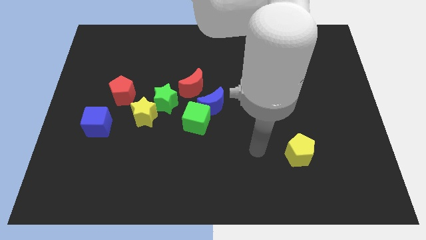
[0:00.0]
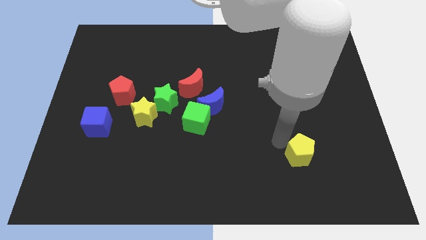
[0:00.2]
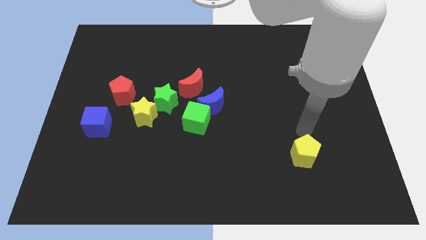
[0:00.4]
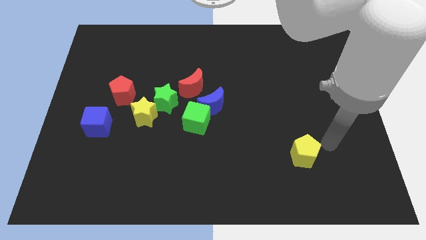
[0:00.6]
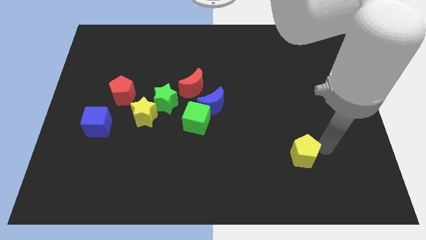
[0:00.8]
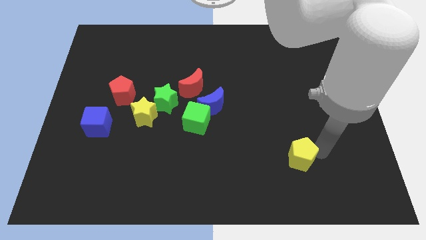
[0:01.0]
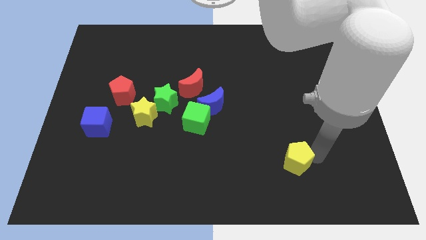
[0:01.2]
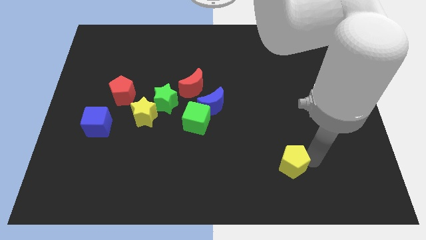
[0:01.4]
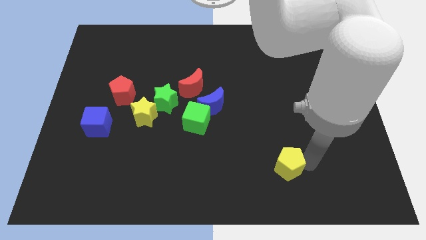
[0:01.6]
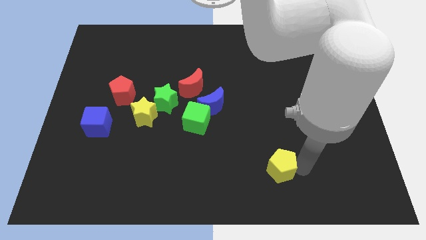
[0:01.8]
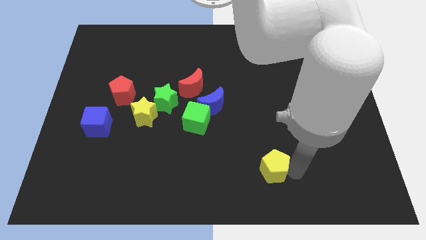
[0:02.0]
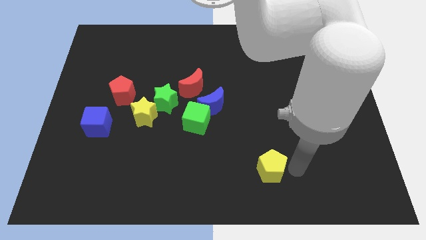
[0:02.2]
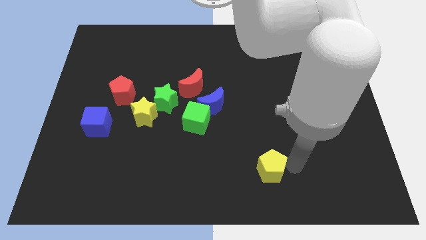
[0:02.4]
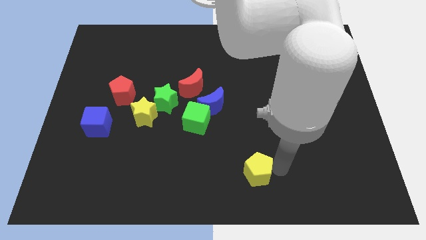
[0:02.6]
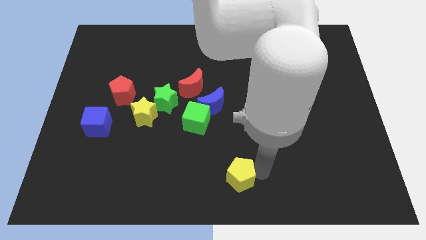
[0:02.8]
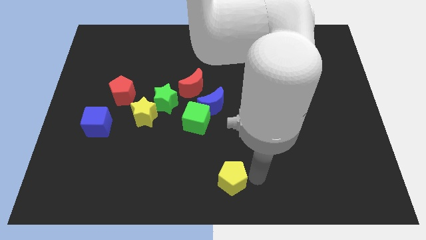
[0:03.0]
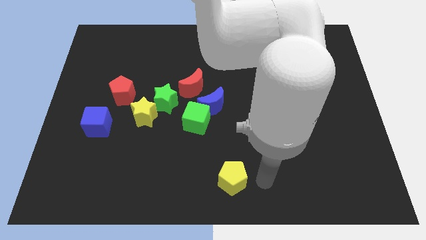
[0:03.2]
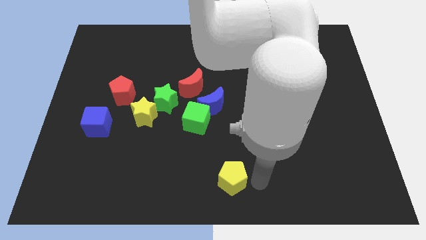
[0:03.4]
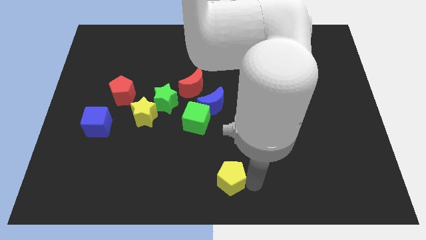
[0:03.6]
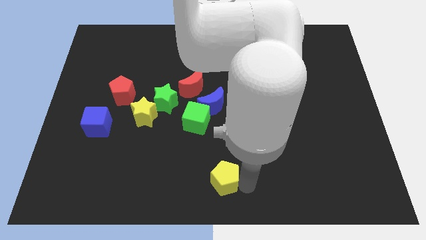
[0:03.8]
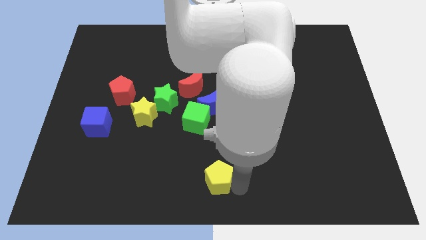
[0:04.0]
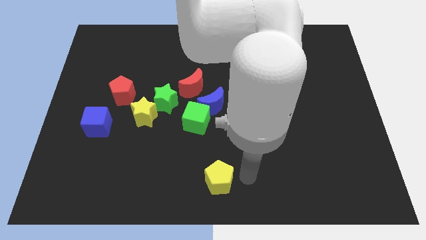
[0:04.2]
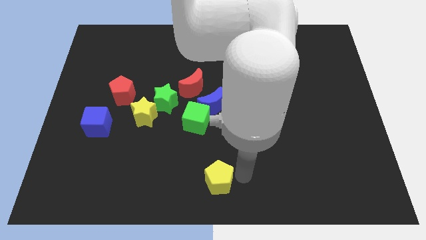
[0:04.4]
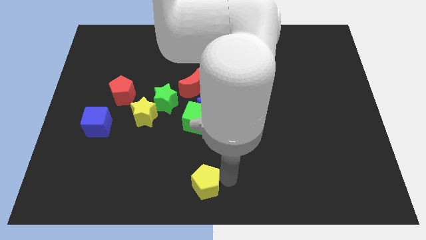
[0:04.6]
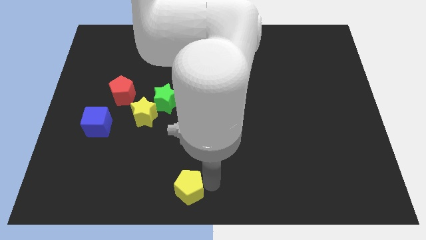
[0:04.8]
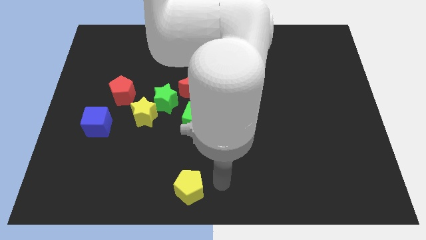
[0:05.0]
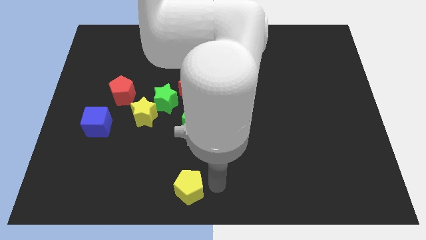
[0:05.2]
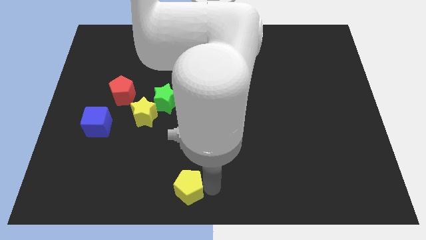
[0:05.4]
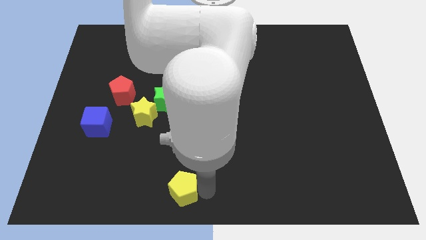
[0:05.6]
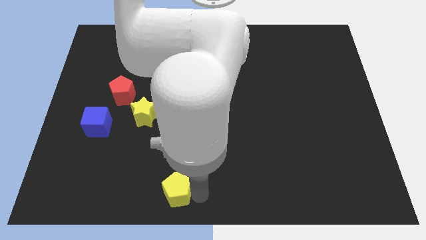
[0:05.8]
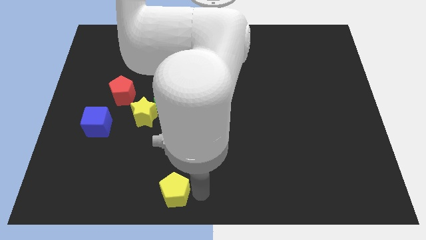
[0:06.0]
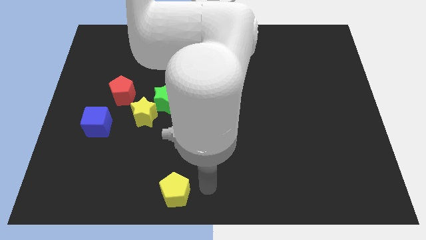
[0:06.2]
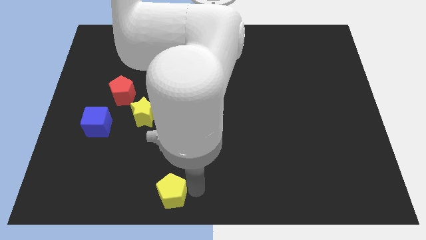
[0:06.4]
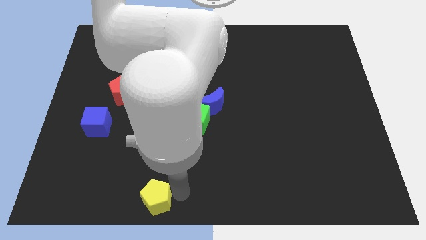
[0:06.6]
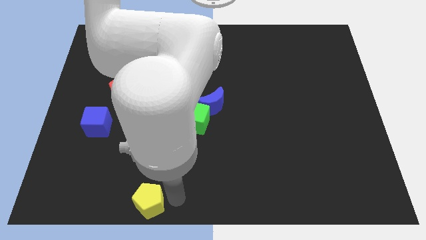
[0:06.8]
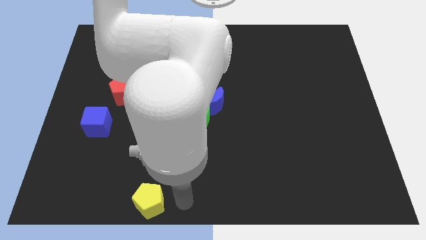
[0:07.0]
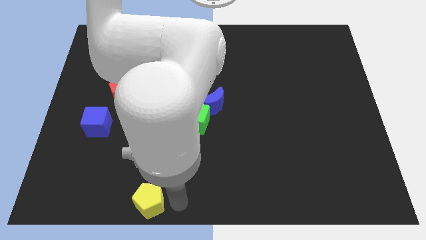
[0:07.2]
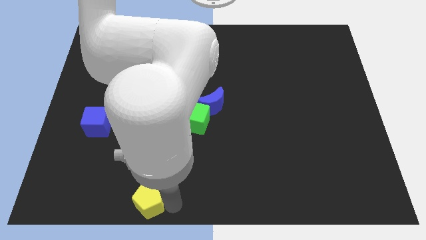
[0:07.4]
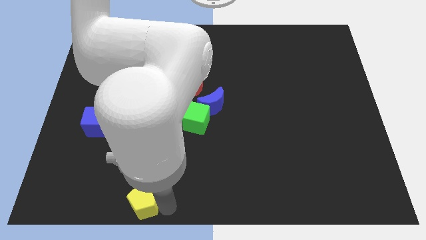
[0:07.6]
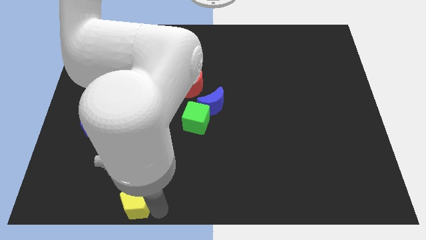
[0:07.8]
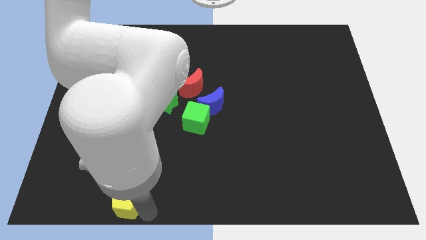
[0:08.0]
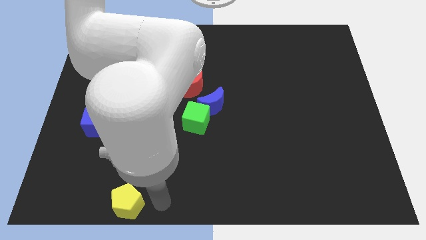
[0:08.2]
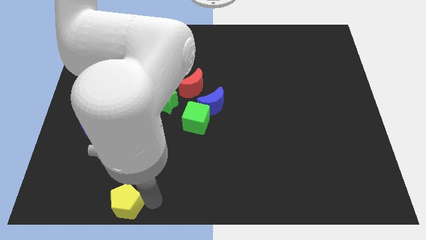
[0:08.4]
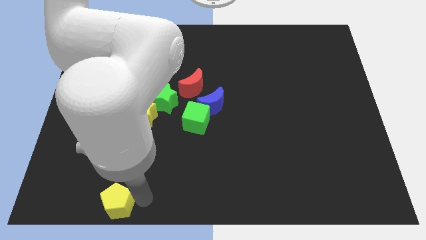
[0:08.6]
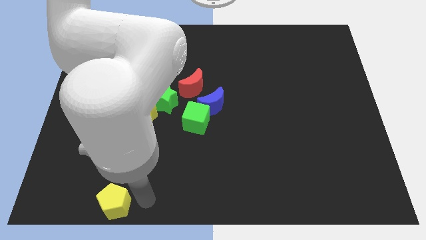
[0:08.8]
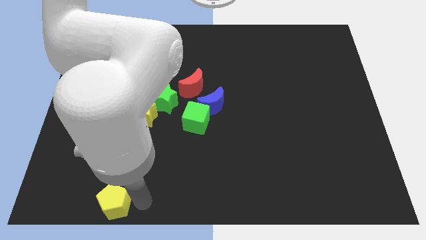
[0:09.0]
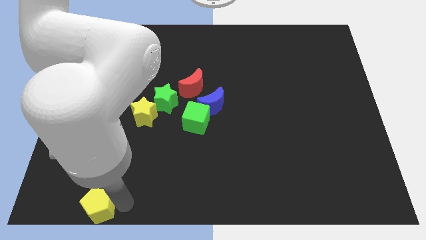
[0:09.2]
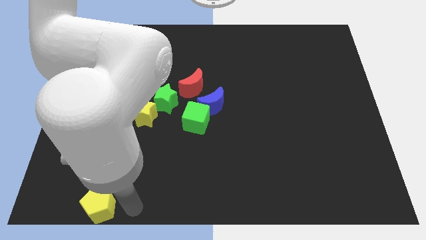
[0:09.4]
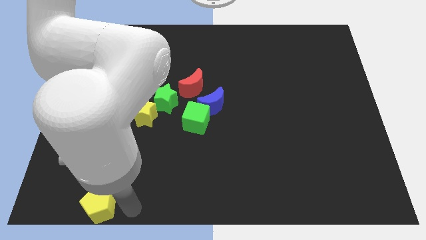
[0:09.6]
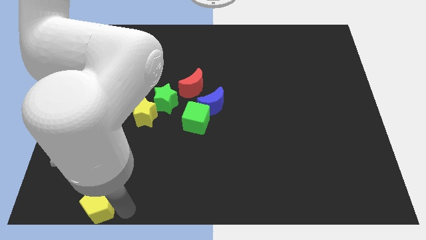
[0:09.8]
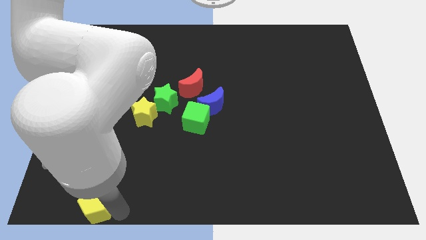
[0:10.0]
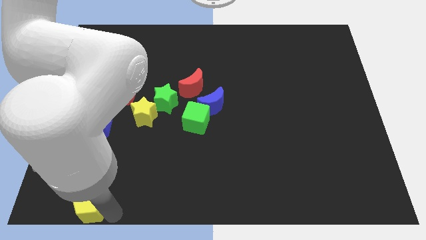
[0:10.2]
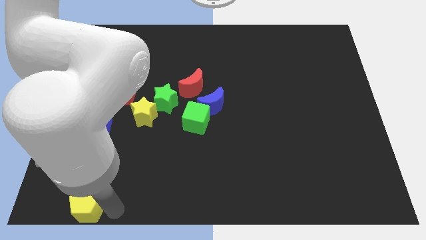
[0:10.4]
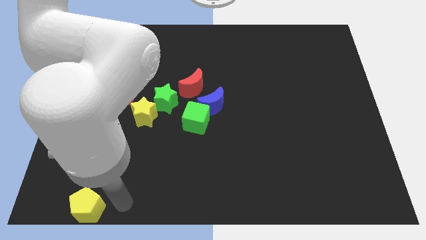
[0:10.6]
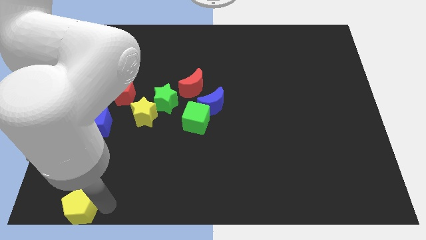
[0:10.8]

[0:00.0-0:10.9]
push the yellow pentagon to the bottom left of the board

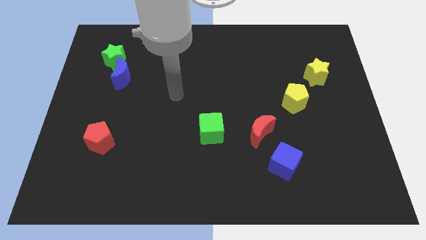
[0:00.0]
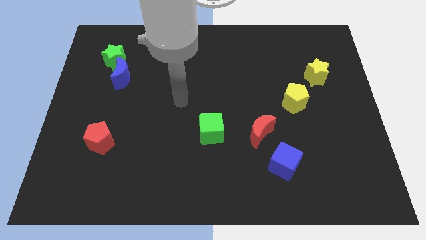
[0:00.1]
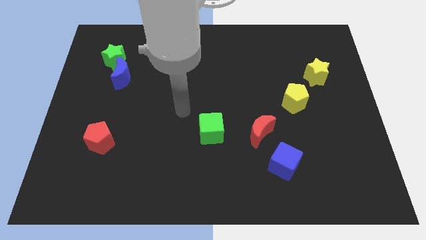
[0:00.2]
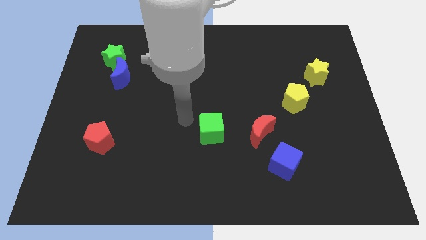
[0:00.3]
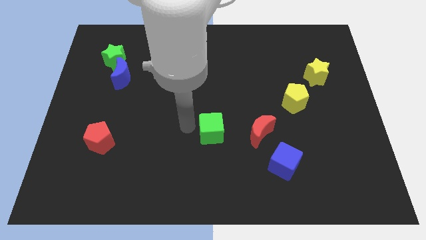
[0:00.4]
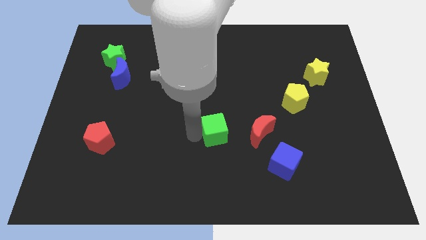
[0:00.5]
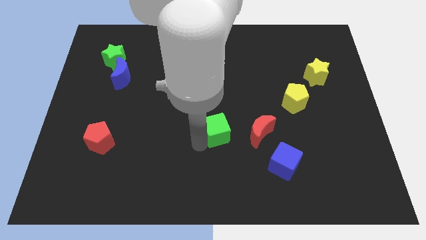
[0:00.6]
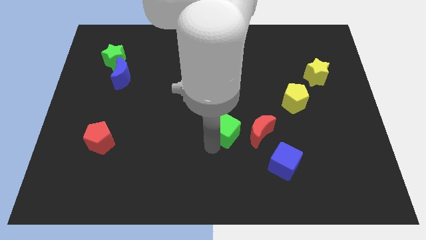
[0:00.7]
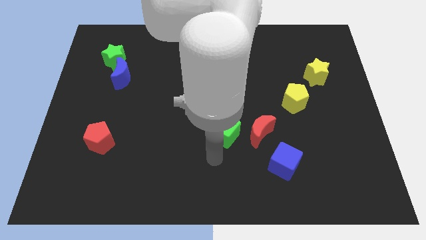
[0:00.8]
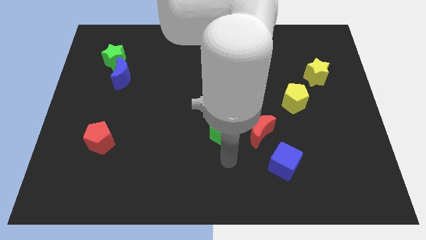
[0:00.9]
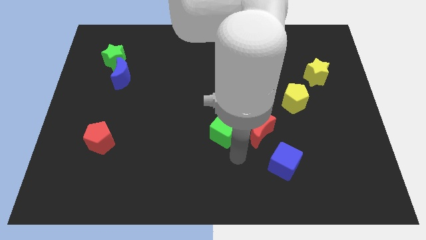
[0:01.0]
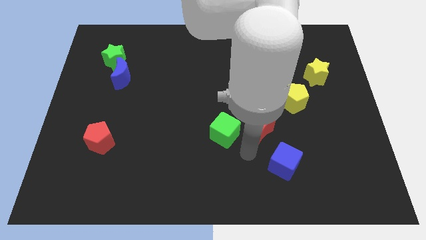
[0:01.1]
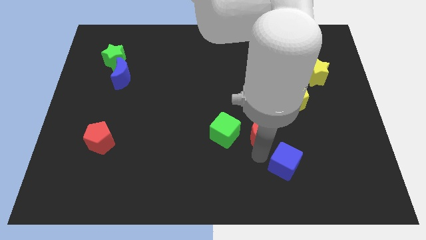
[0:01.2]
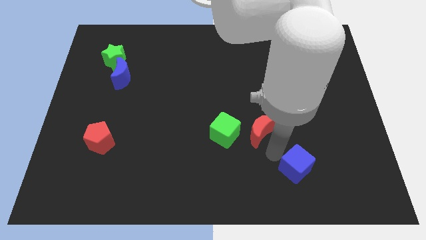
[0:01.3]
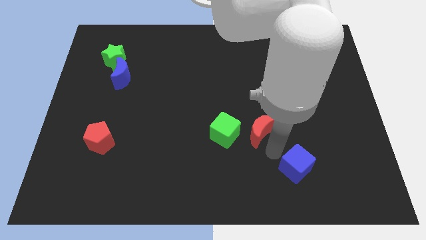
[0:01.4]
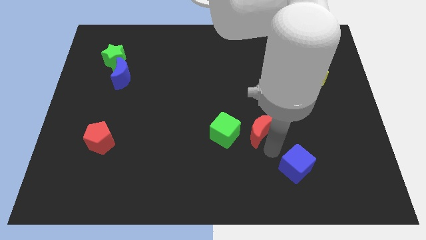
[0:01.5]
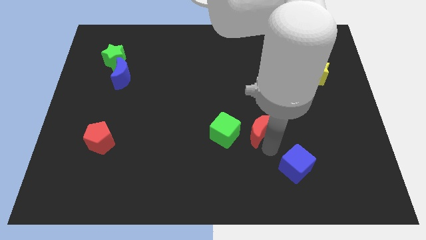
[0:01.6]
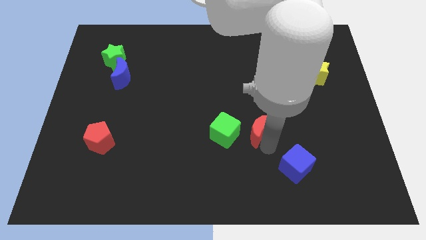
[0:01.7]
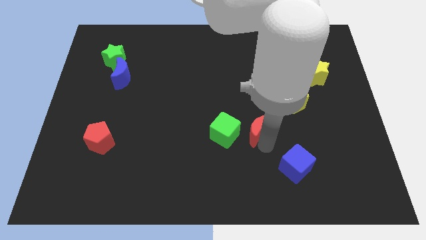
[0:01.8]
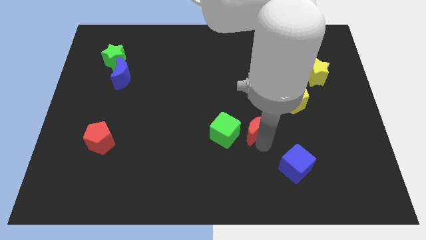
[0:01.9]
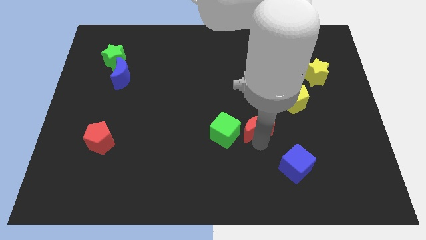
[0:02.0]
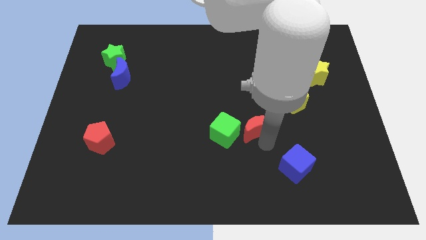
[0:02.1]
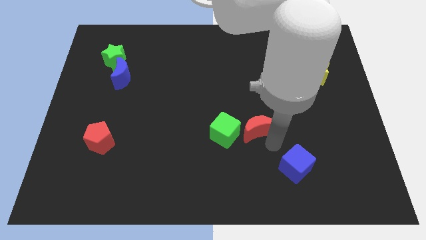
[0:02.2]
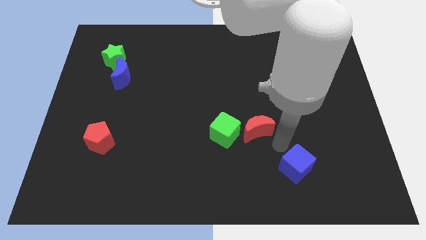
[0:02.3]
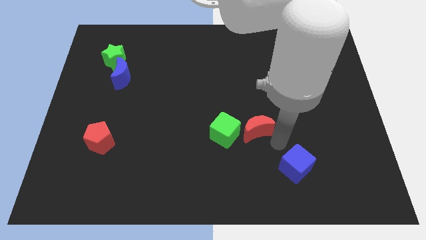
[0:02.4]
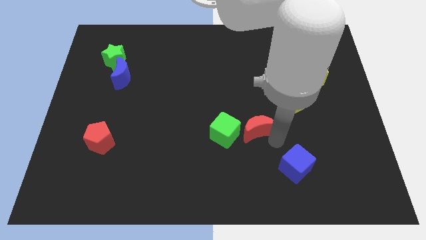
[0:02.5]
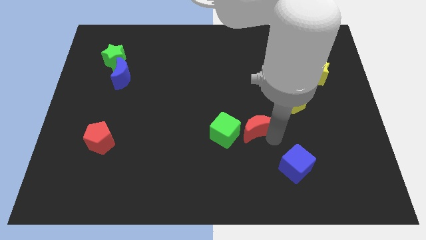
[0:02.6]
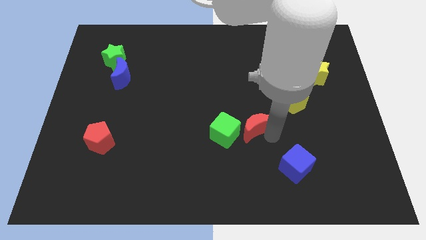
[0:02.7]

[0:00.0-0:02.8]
push the red moon to the middle
